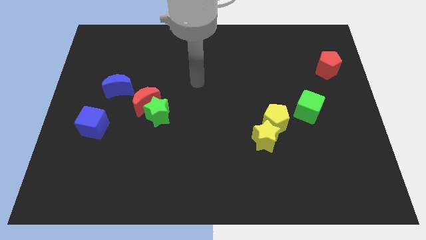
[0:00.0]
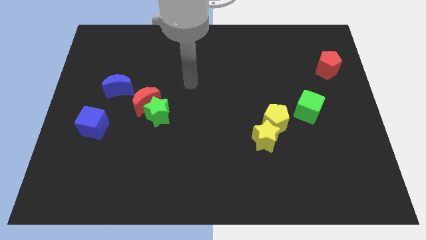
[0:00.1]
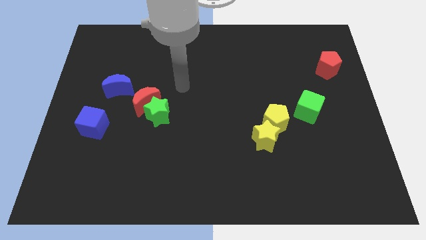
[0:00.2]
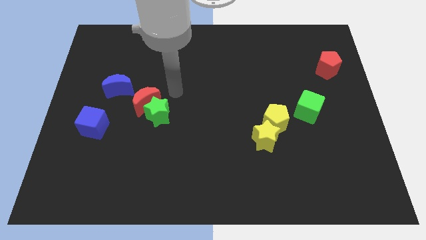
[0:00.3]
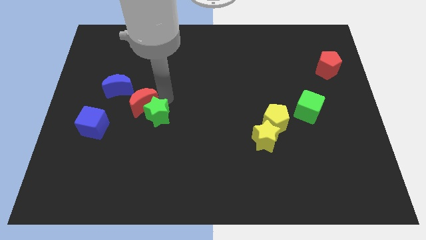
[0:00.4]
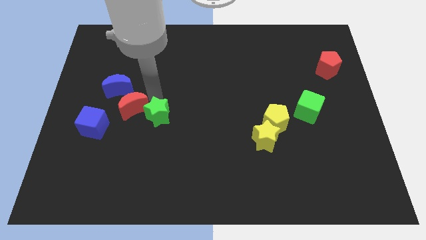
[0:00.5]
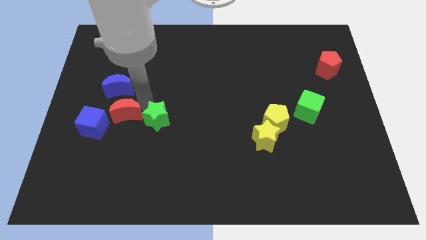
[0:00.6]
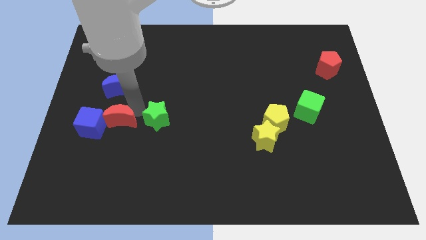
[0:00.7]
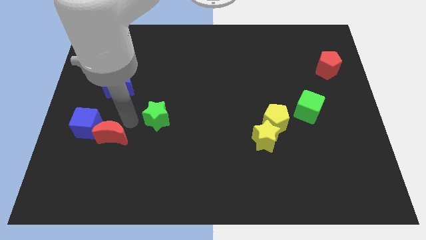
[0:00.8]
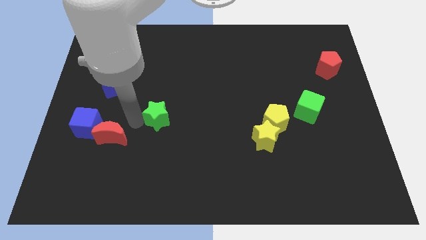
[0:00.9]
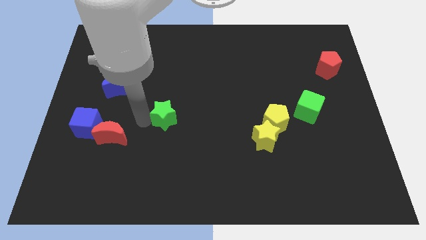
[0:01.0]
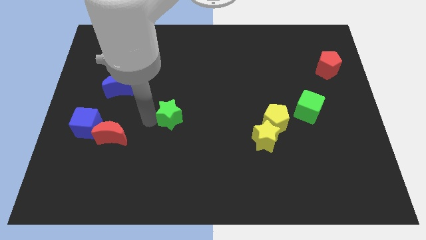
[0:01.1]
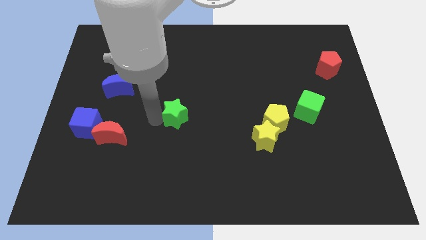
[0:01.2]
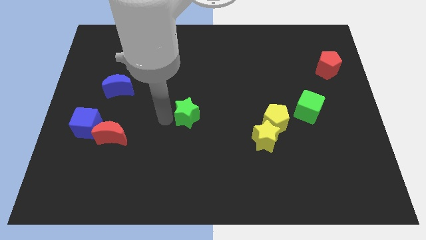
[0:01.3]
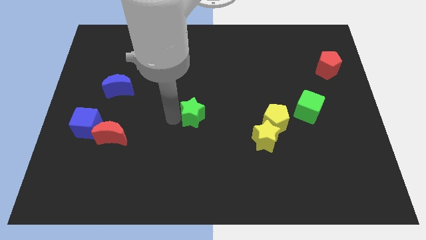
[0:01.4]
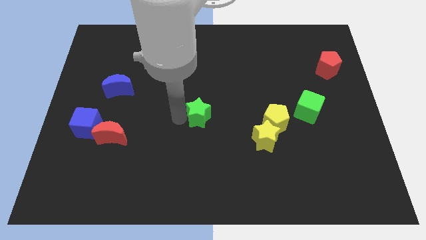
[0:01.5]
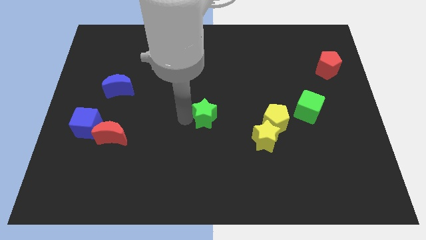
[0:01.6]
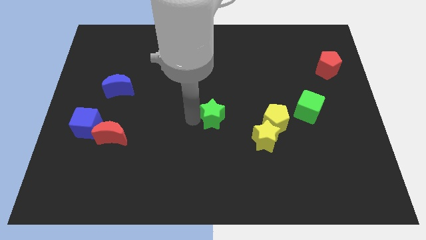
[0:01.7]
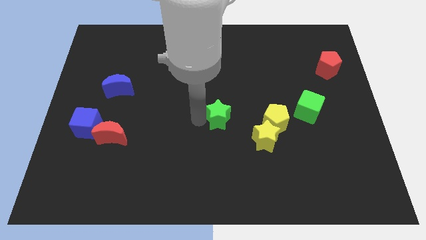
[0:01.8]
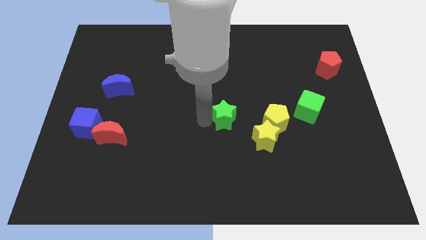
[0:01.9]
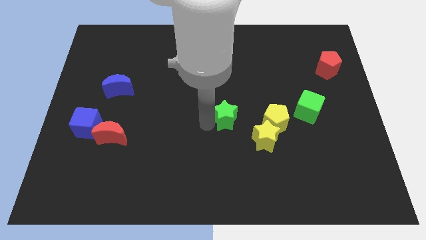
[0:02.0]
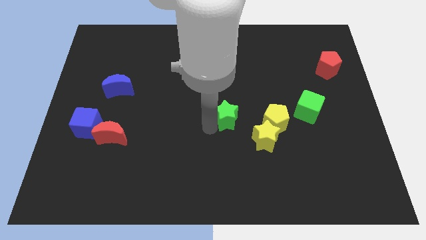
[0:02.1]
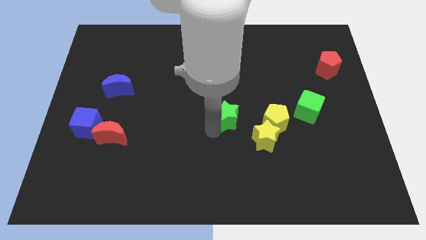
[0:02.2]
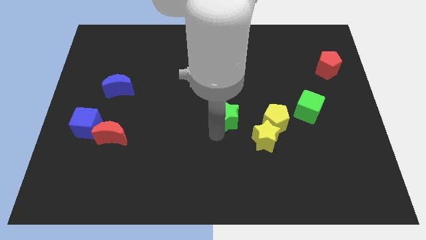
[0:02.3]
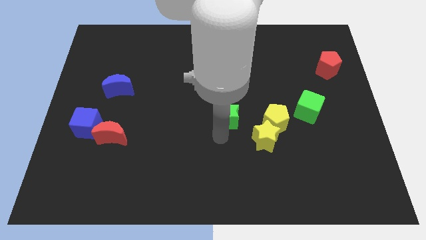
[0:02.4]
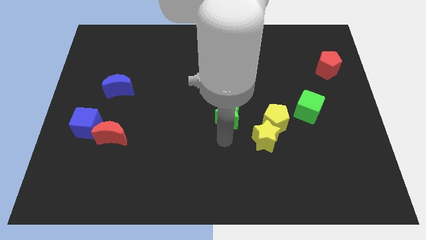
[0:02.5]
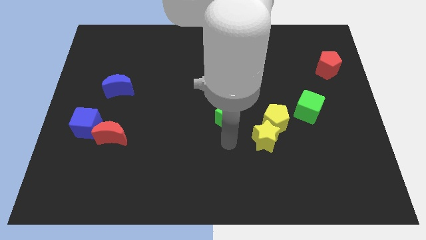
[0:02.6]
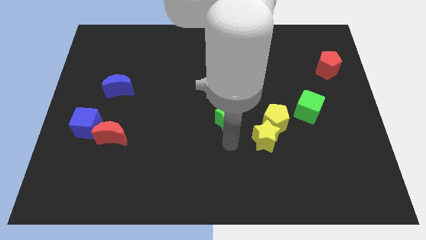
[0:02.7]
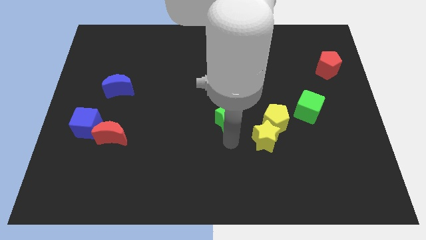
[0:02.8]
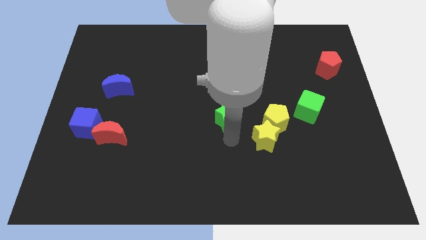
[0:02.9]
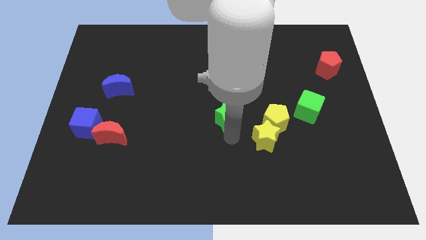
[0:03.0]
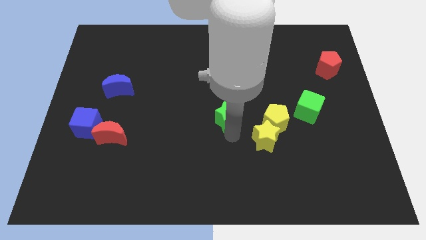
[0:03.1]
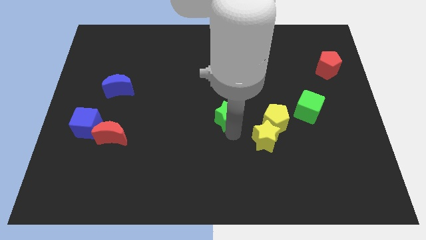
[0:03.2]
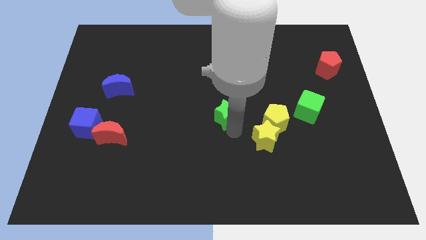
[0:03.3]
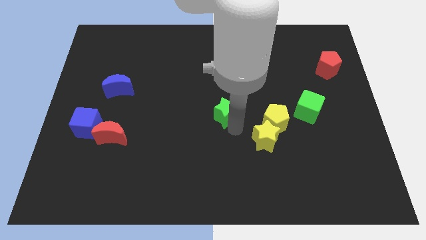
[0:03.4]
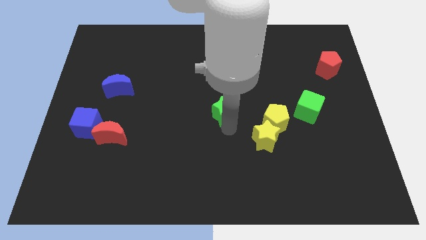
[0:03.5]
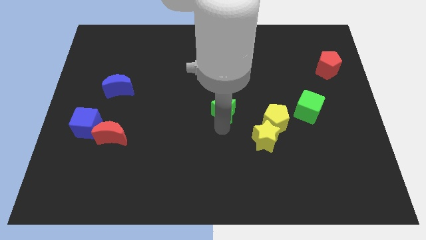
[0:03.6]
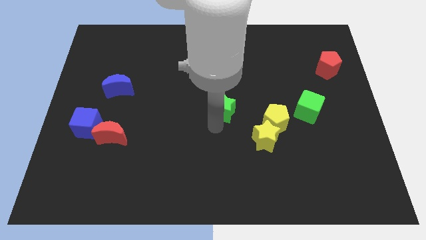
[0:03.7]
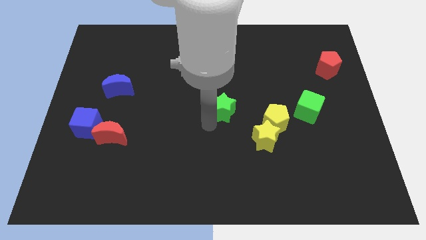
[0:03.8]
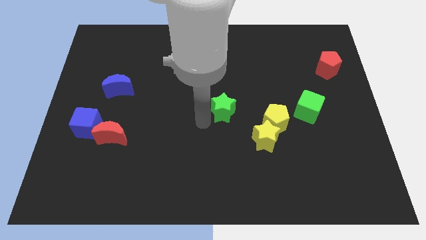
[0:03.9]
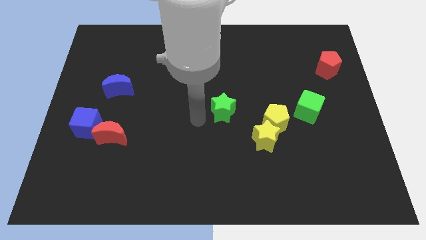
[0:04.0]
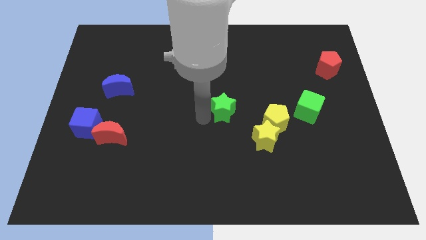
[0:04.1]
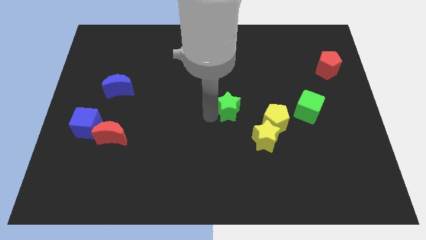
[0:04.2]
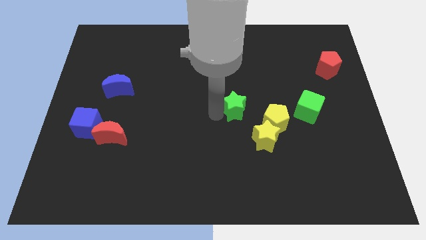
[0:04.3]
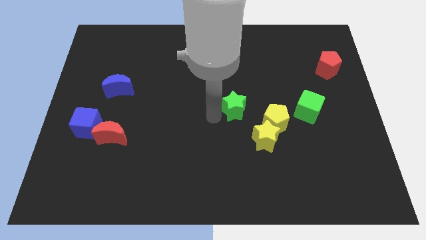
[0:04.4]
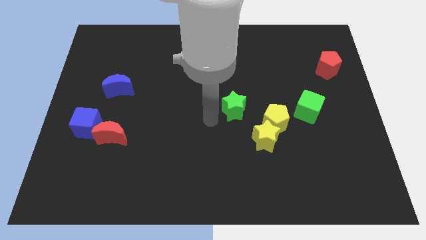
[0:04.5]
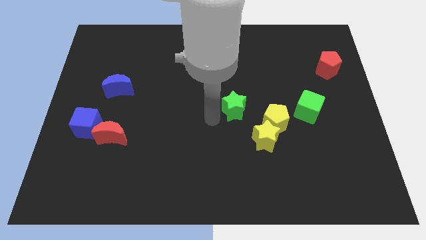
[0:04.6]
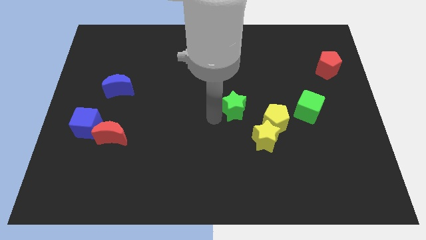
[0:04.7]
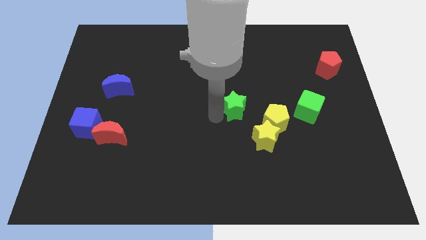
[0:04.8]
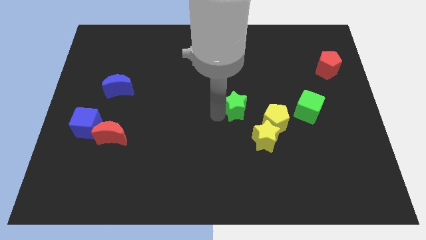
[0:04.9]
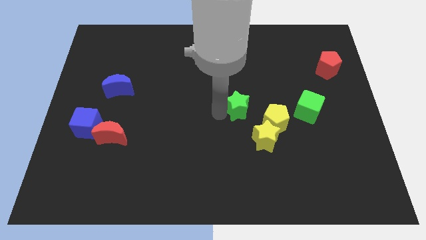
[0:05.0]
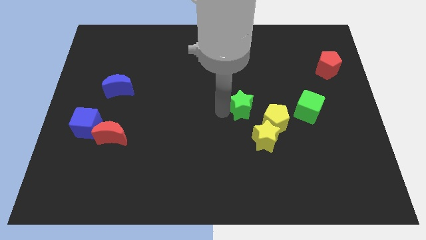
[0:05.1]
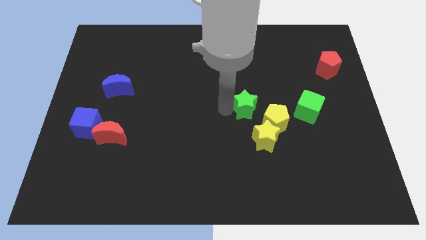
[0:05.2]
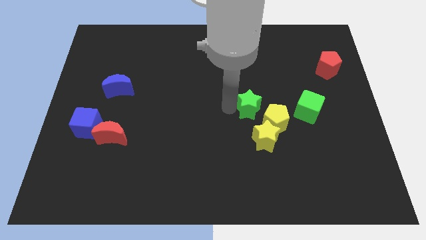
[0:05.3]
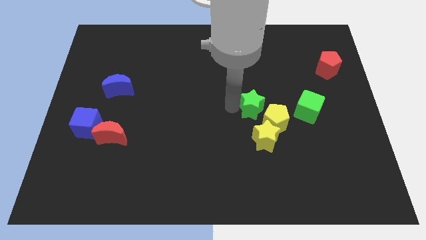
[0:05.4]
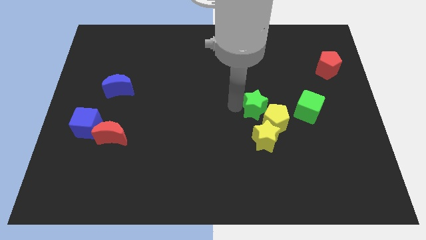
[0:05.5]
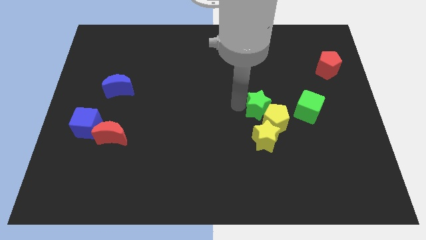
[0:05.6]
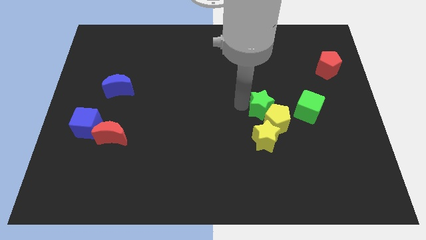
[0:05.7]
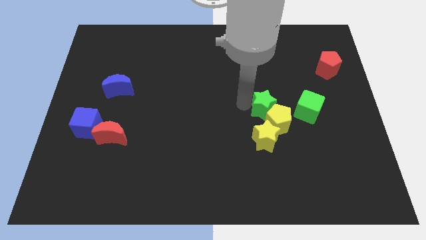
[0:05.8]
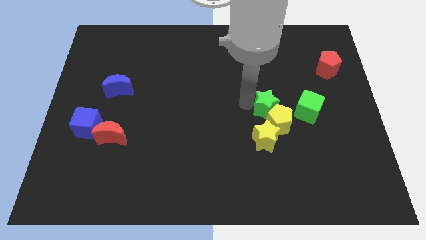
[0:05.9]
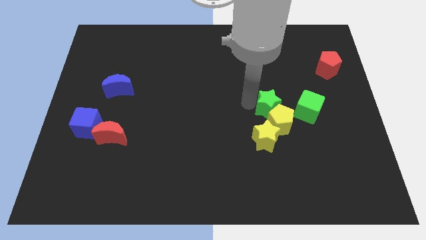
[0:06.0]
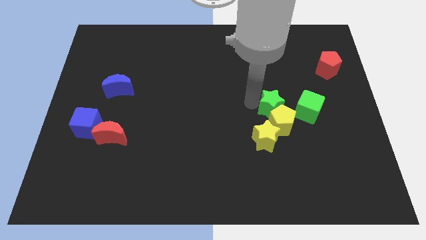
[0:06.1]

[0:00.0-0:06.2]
put the green star diagonally up and to the right of the yellow star

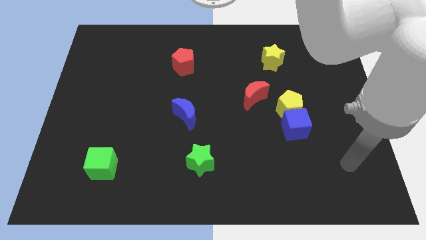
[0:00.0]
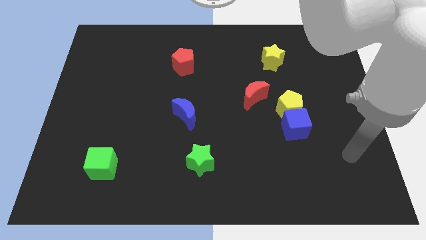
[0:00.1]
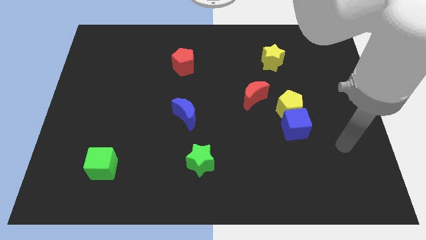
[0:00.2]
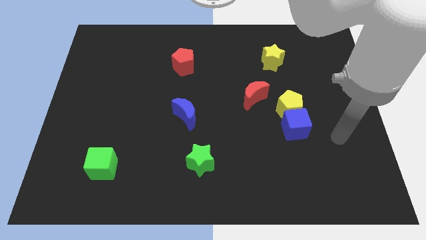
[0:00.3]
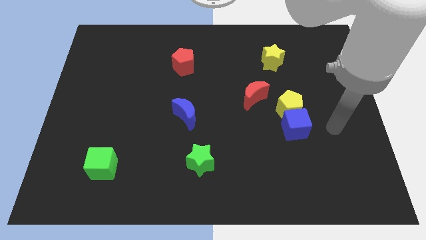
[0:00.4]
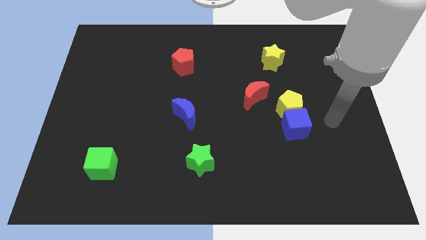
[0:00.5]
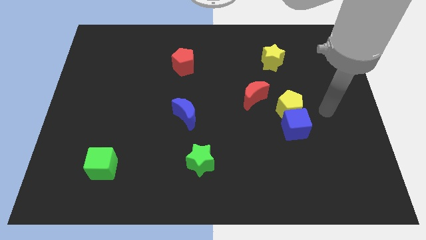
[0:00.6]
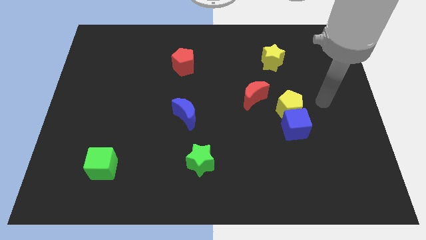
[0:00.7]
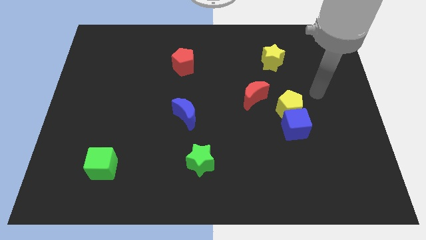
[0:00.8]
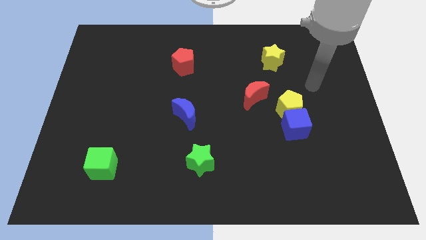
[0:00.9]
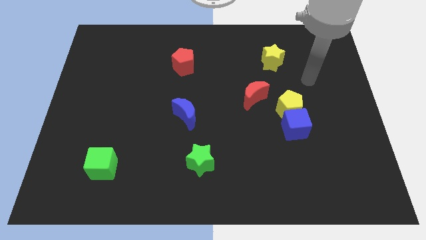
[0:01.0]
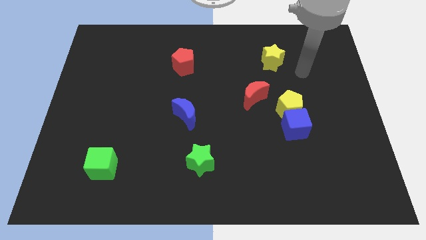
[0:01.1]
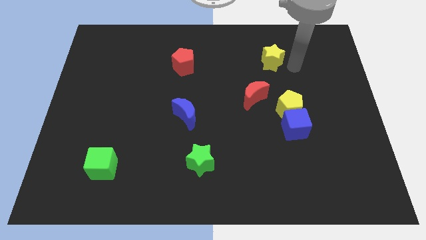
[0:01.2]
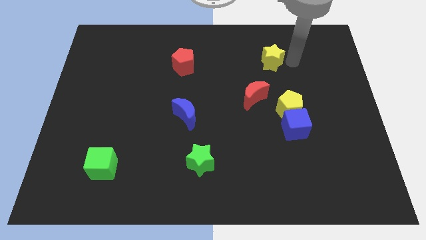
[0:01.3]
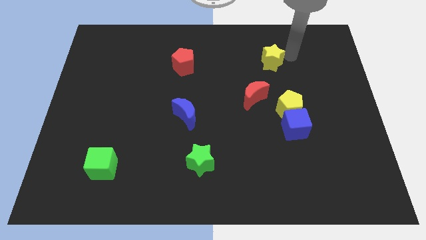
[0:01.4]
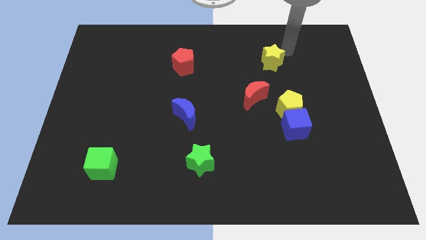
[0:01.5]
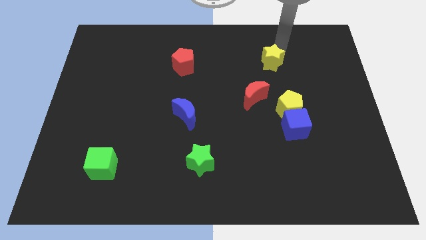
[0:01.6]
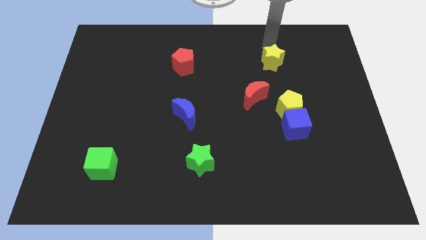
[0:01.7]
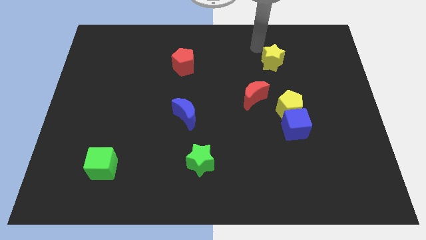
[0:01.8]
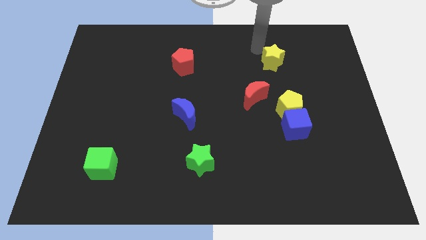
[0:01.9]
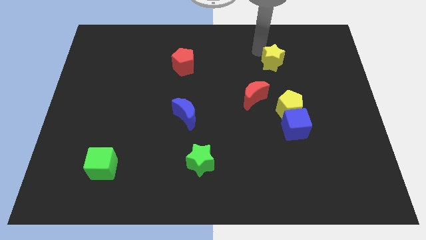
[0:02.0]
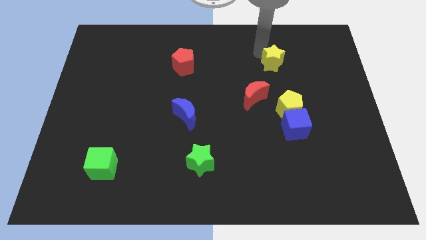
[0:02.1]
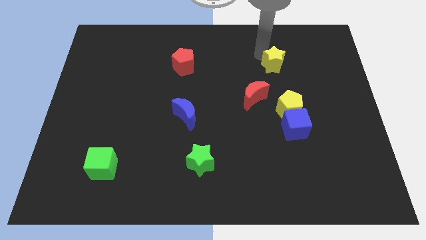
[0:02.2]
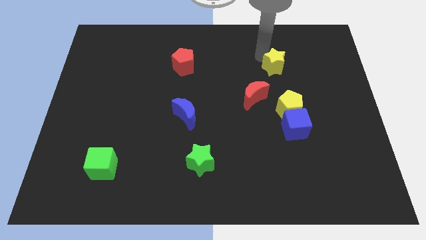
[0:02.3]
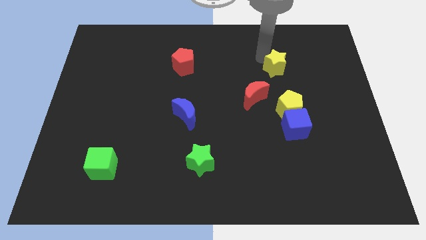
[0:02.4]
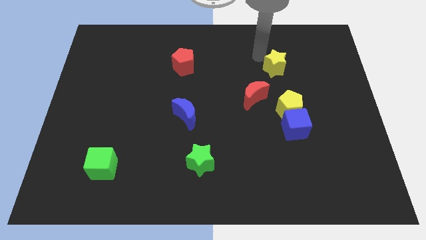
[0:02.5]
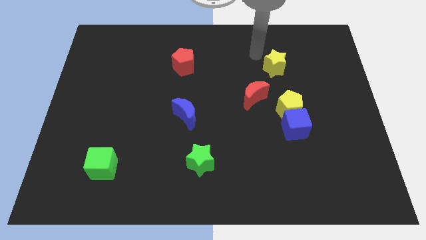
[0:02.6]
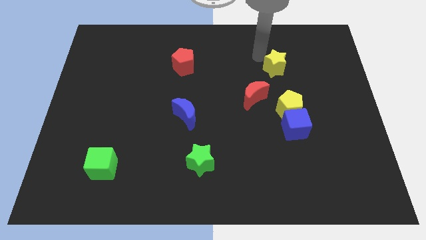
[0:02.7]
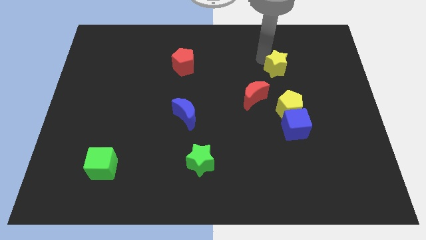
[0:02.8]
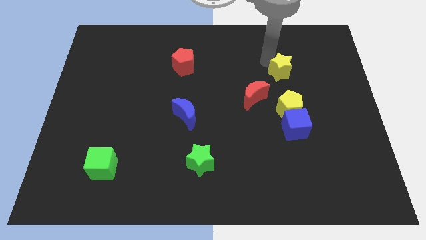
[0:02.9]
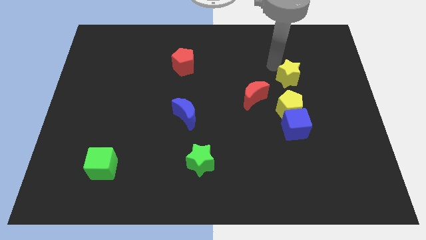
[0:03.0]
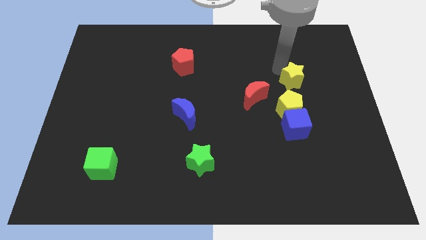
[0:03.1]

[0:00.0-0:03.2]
put the yellow star diagonally up and to the right of the yellow pentagon
